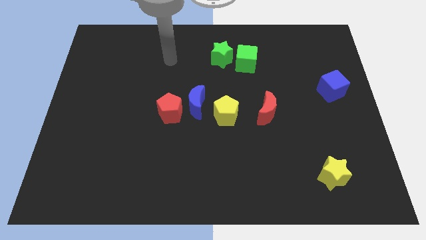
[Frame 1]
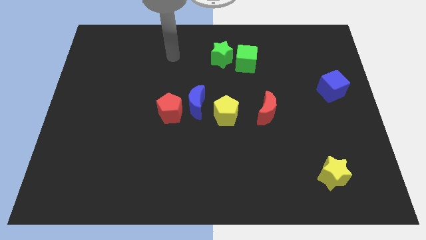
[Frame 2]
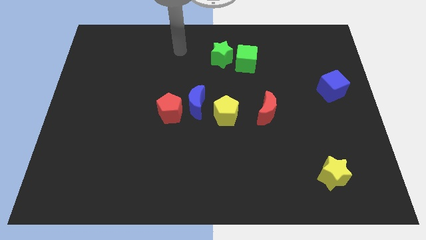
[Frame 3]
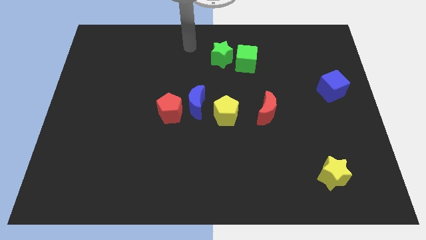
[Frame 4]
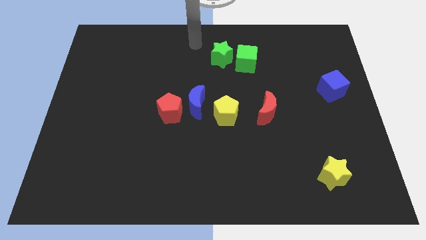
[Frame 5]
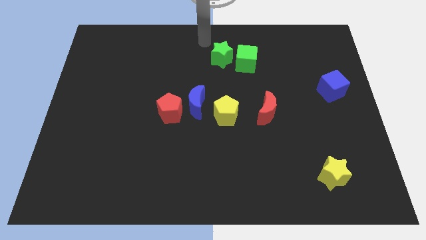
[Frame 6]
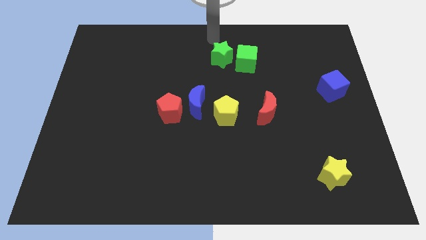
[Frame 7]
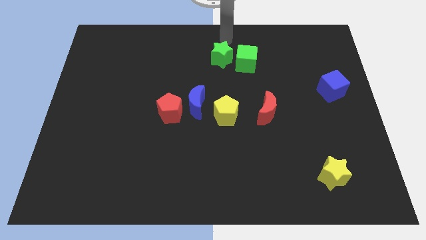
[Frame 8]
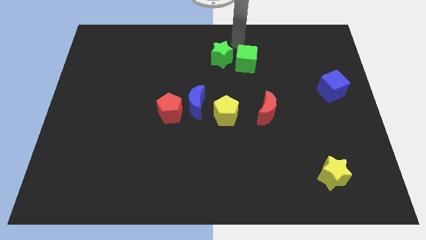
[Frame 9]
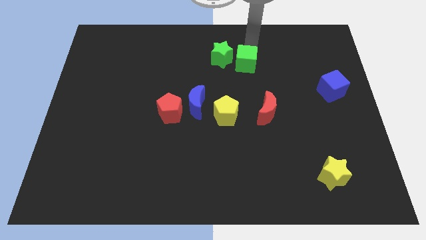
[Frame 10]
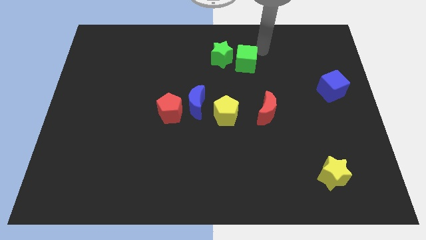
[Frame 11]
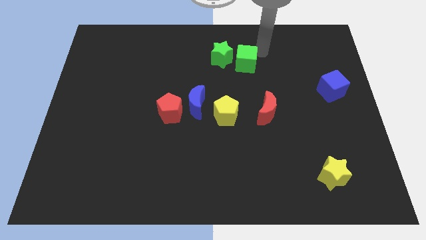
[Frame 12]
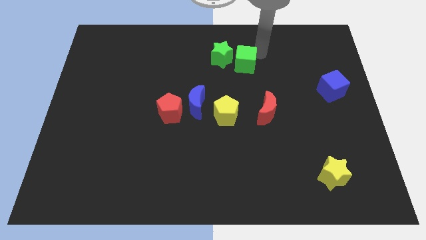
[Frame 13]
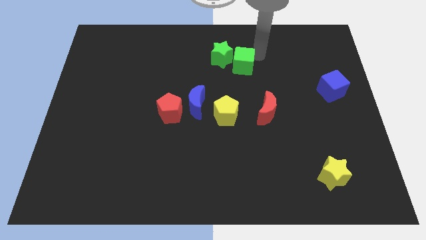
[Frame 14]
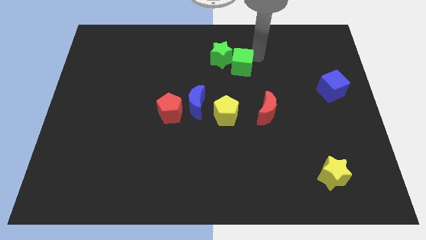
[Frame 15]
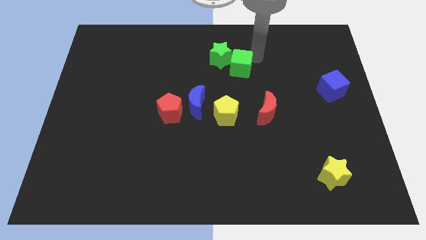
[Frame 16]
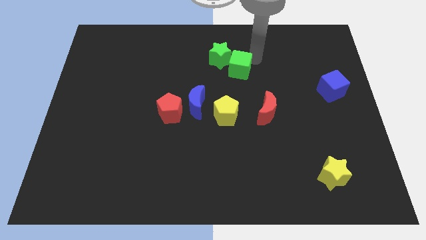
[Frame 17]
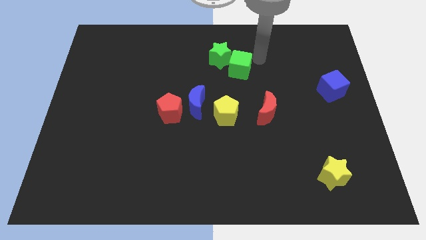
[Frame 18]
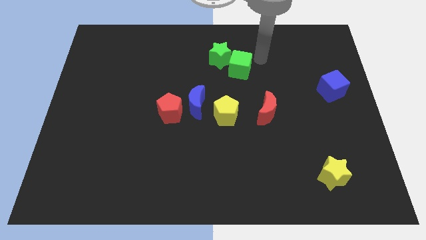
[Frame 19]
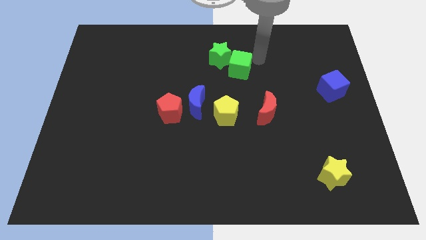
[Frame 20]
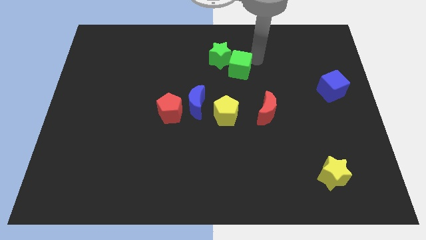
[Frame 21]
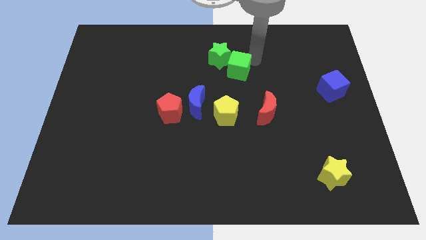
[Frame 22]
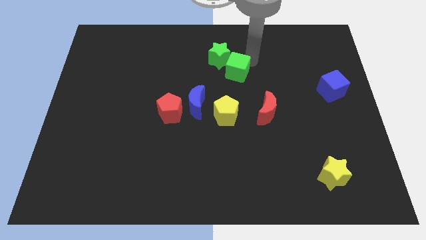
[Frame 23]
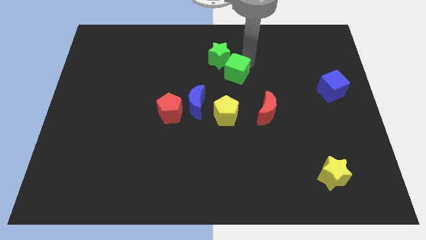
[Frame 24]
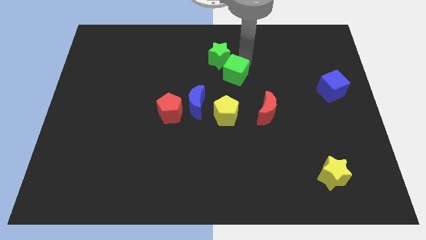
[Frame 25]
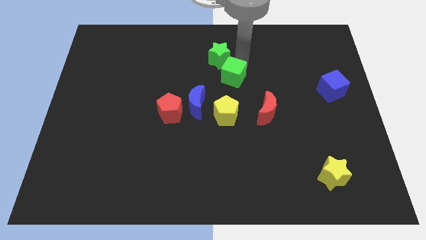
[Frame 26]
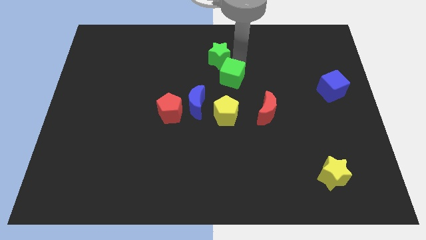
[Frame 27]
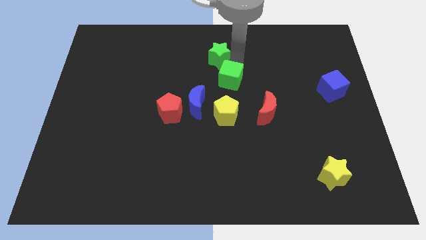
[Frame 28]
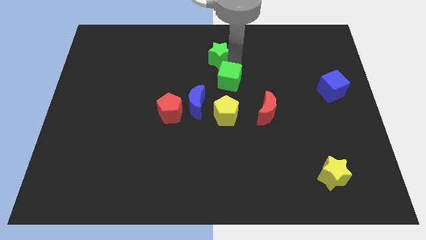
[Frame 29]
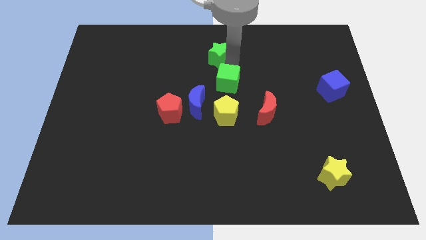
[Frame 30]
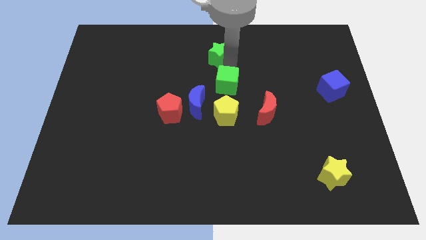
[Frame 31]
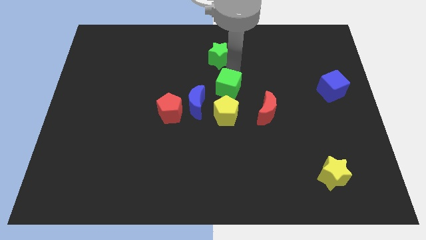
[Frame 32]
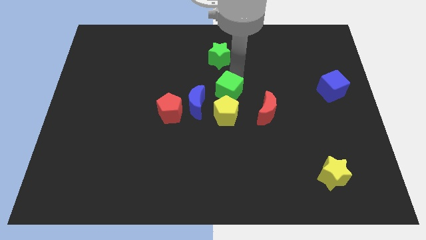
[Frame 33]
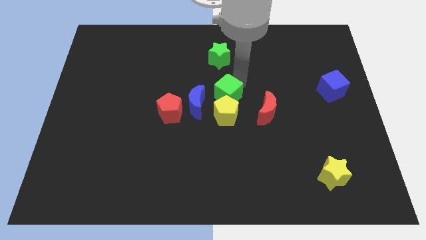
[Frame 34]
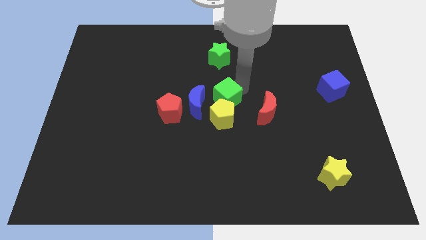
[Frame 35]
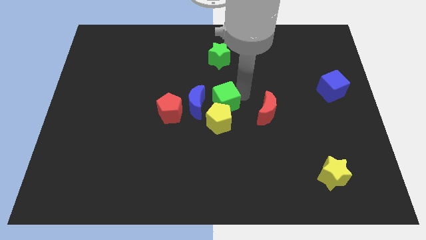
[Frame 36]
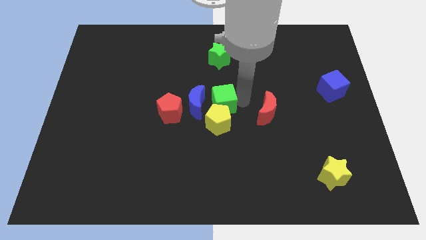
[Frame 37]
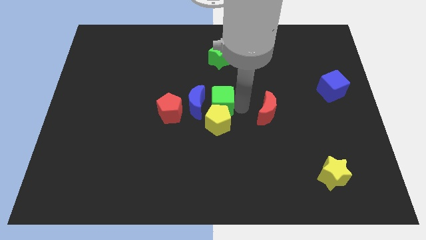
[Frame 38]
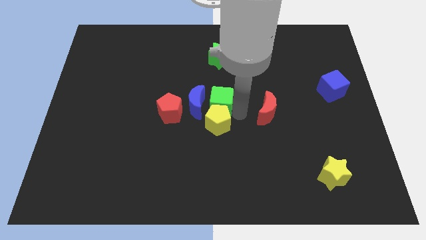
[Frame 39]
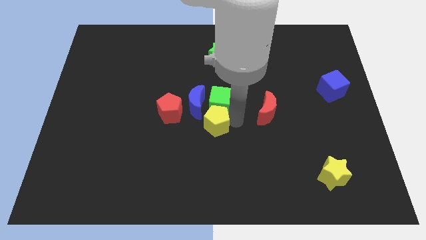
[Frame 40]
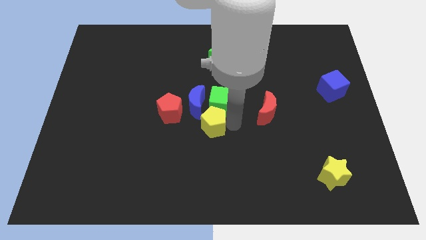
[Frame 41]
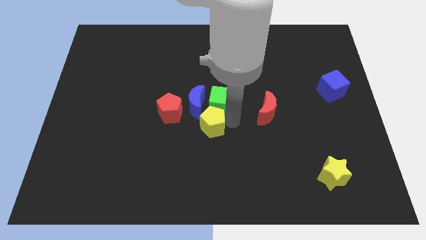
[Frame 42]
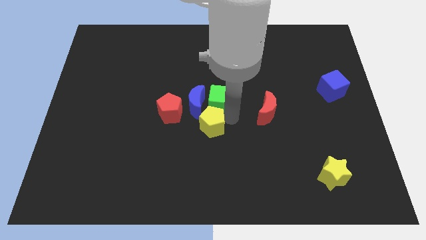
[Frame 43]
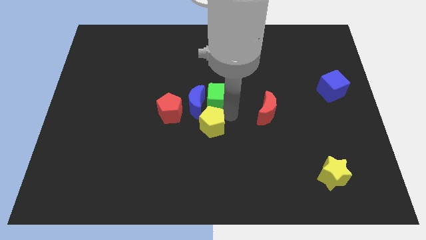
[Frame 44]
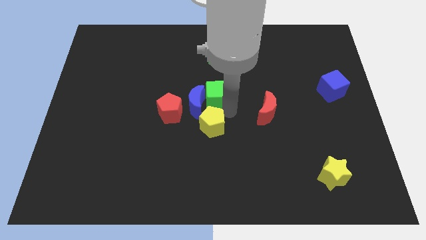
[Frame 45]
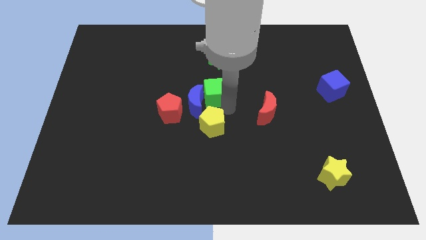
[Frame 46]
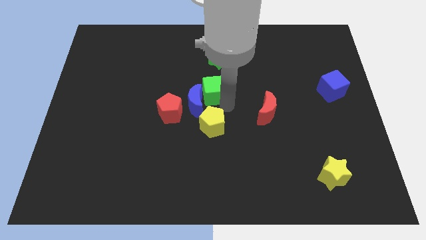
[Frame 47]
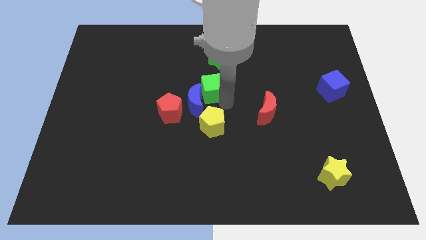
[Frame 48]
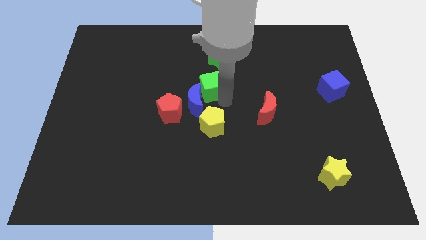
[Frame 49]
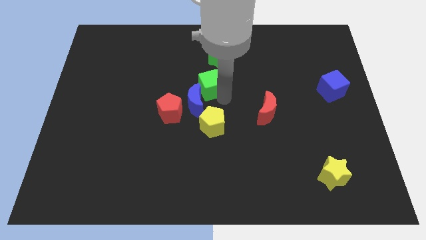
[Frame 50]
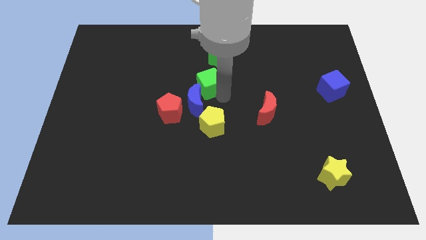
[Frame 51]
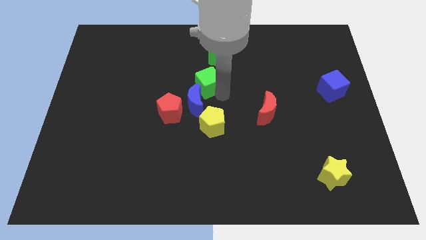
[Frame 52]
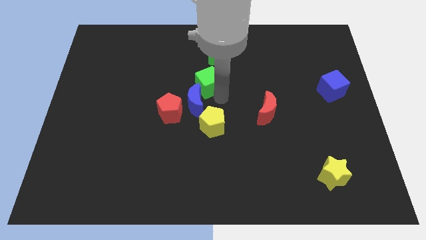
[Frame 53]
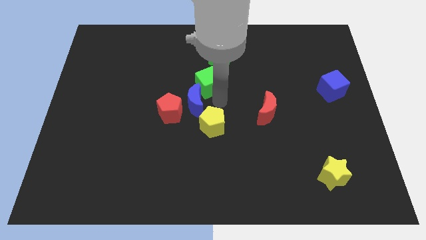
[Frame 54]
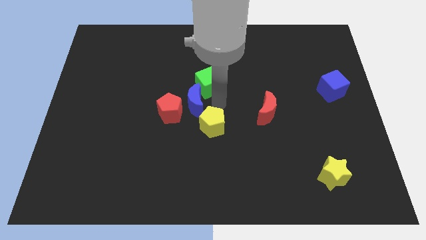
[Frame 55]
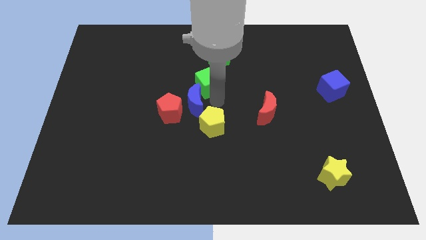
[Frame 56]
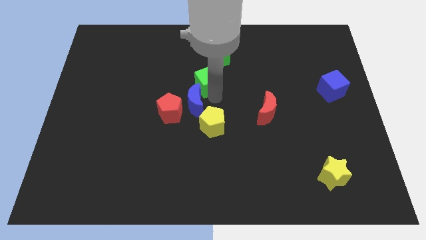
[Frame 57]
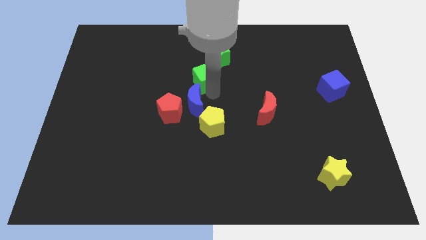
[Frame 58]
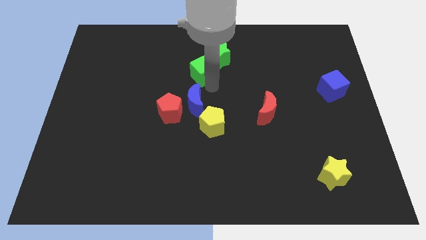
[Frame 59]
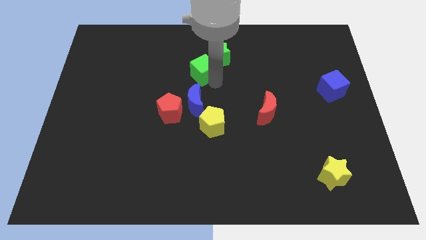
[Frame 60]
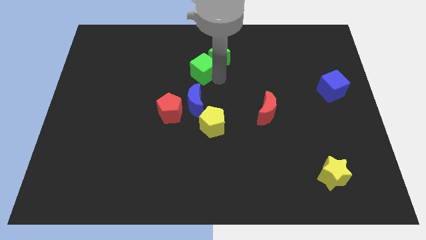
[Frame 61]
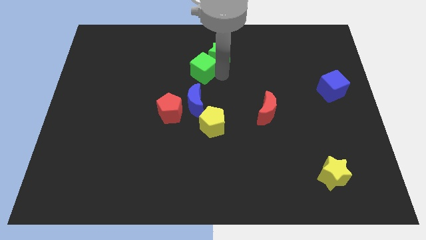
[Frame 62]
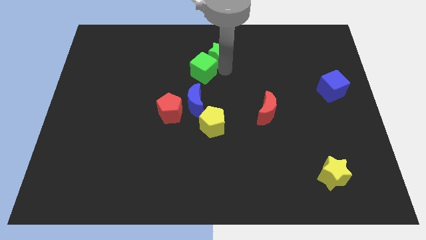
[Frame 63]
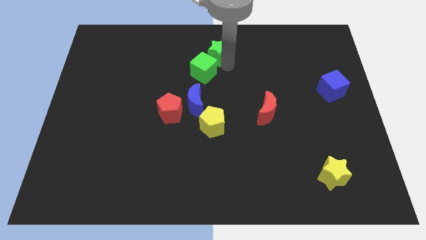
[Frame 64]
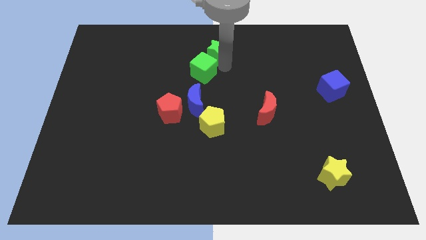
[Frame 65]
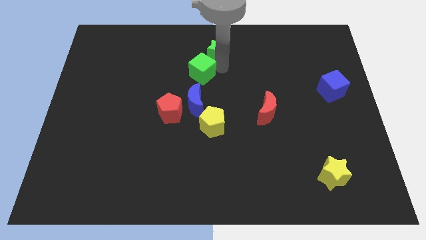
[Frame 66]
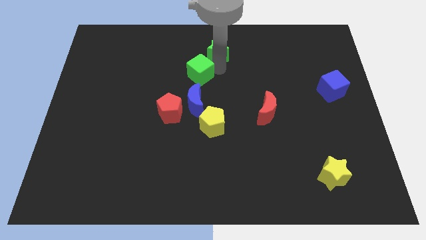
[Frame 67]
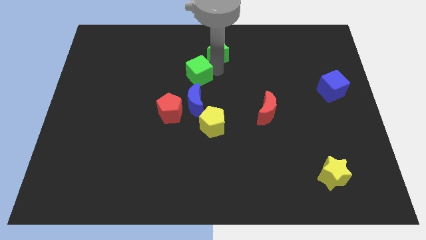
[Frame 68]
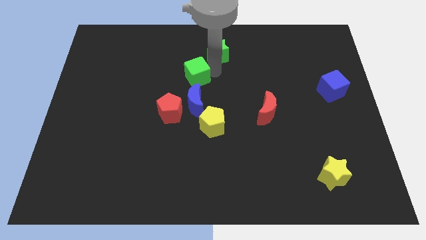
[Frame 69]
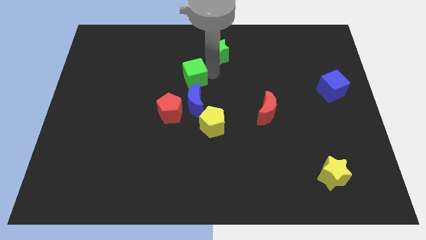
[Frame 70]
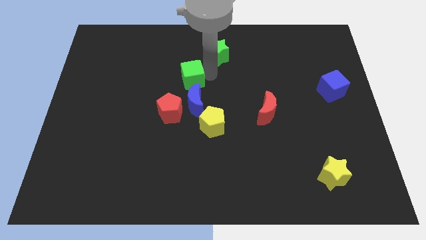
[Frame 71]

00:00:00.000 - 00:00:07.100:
slide the green cube to the top side of the red pentagon

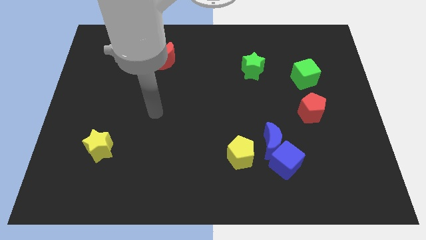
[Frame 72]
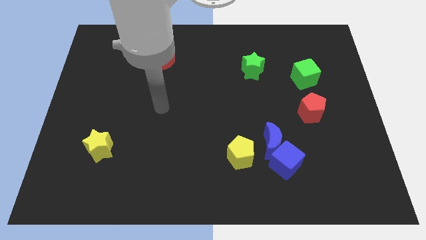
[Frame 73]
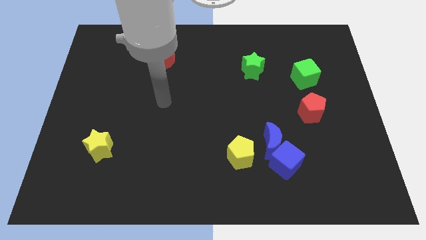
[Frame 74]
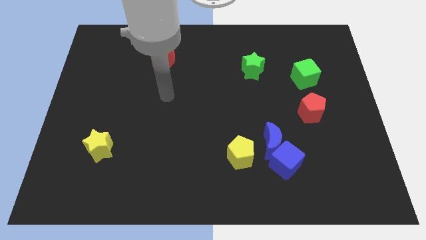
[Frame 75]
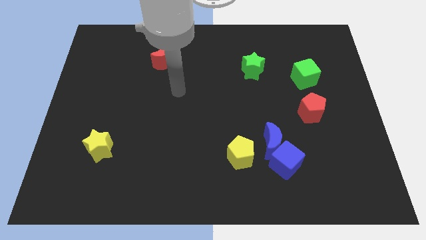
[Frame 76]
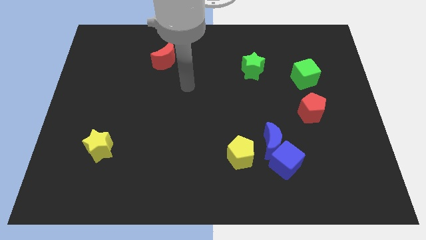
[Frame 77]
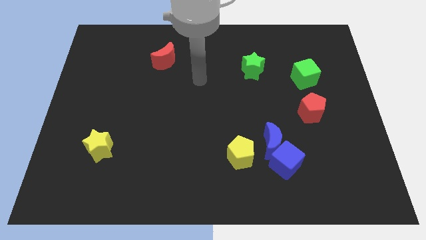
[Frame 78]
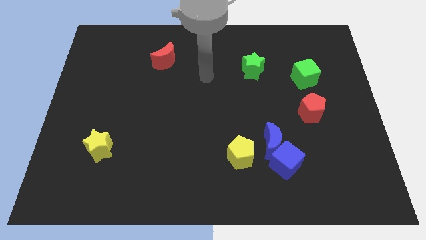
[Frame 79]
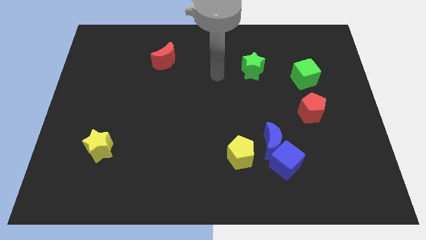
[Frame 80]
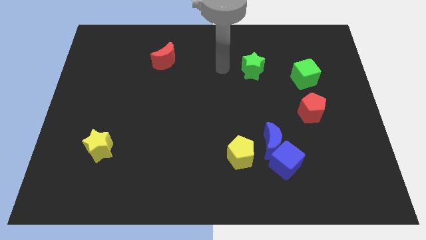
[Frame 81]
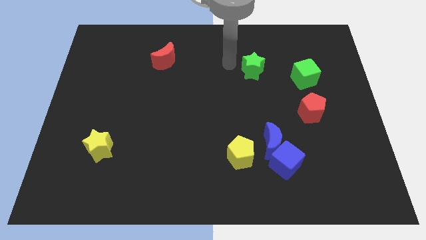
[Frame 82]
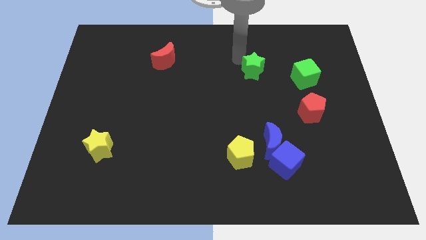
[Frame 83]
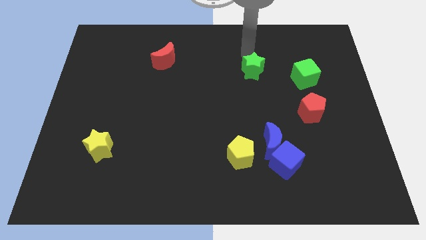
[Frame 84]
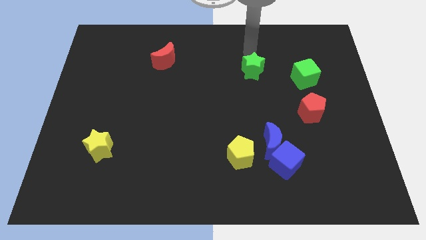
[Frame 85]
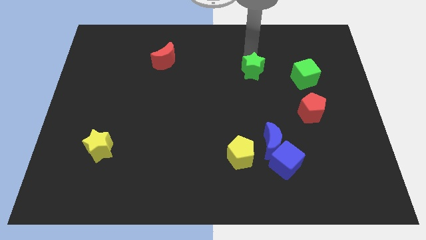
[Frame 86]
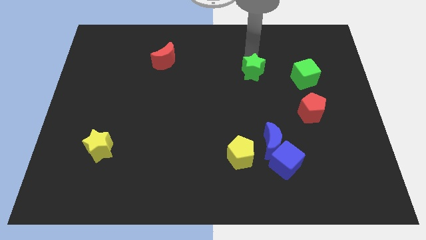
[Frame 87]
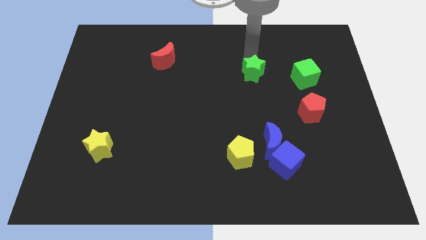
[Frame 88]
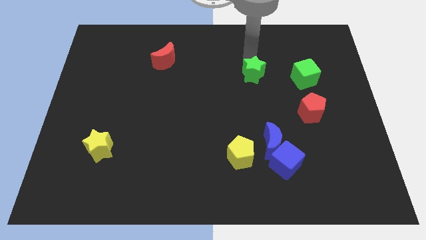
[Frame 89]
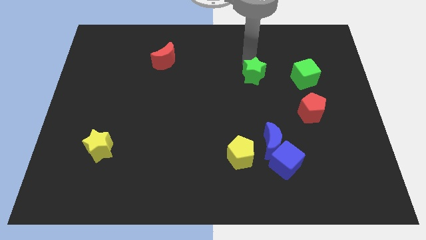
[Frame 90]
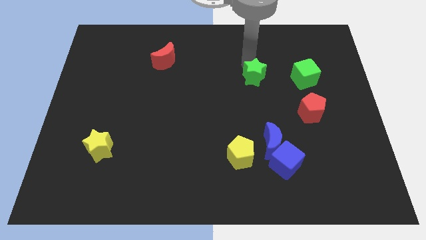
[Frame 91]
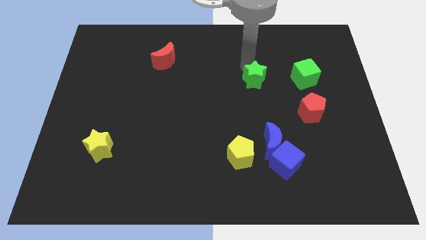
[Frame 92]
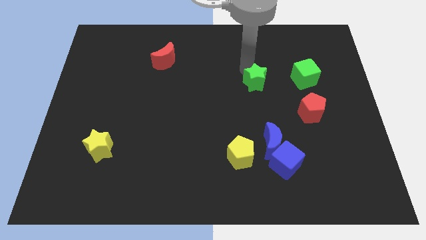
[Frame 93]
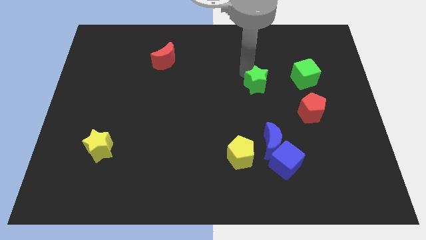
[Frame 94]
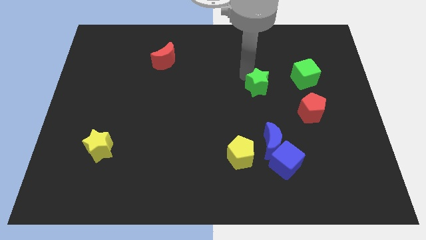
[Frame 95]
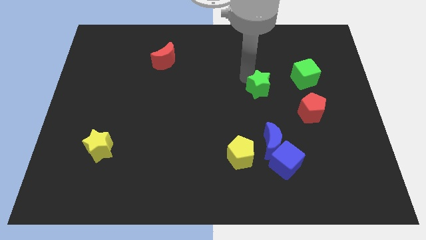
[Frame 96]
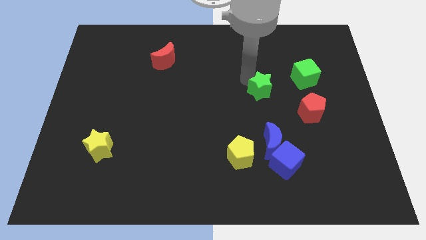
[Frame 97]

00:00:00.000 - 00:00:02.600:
put the green star above the blue moon
